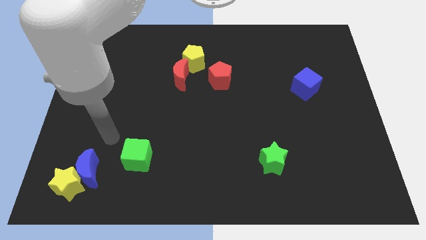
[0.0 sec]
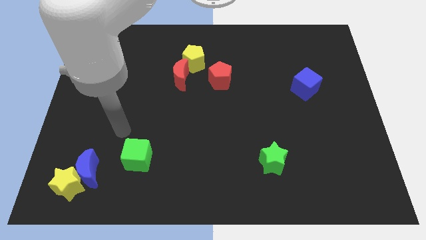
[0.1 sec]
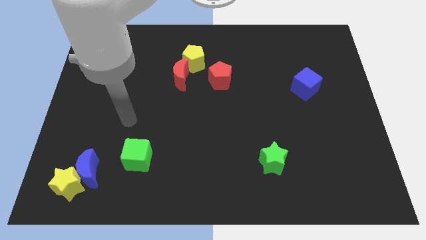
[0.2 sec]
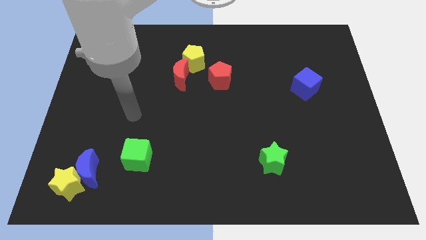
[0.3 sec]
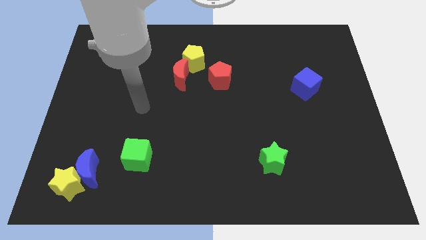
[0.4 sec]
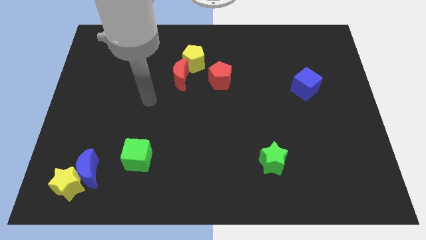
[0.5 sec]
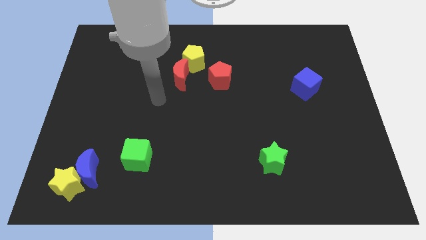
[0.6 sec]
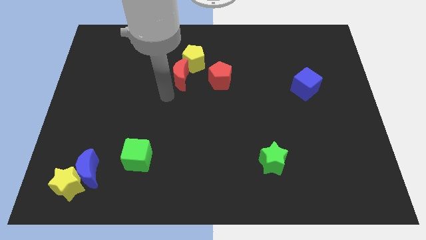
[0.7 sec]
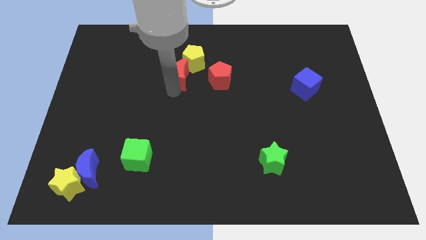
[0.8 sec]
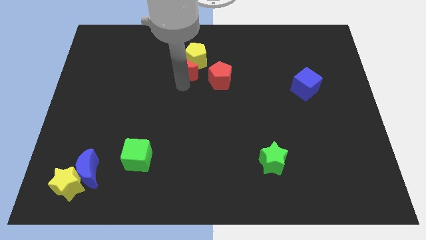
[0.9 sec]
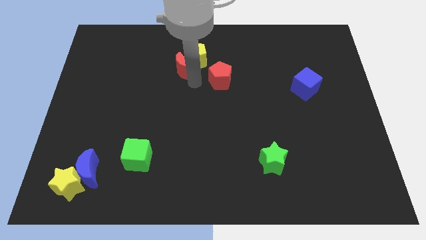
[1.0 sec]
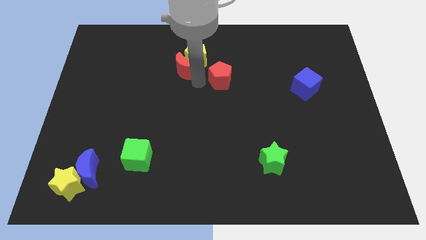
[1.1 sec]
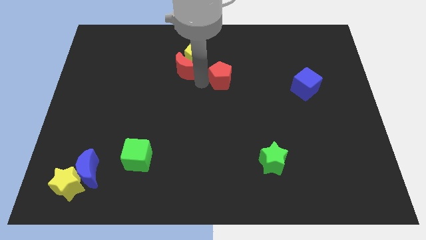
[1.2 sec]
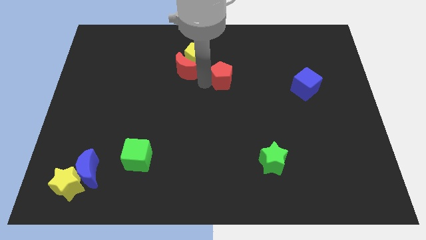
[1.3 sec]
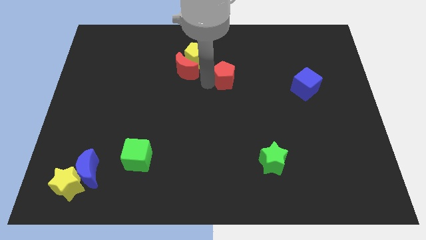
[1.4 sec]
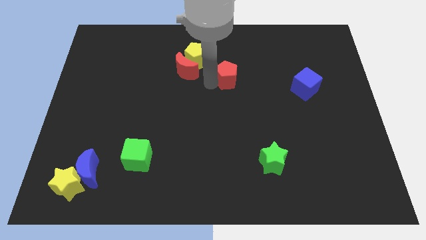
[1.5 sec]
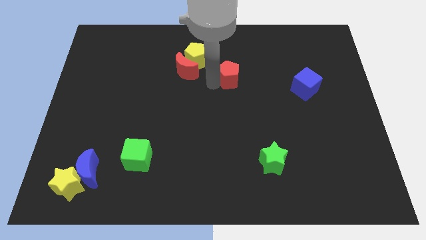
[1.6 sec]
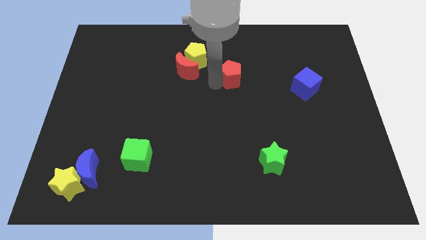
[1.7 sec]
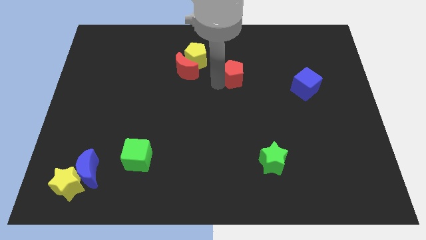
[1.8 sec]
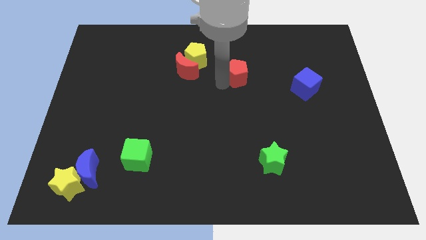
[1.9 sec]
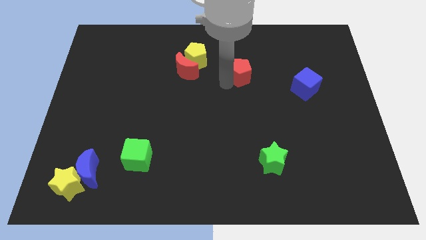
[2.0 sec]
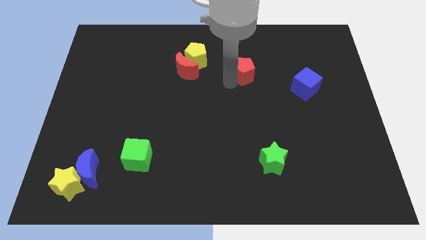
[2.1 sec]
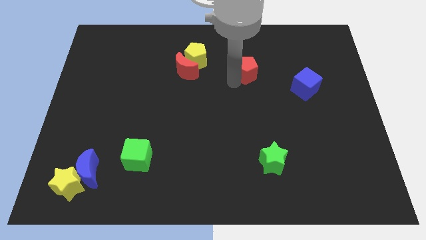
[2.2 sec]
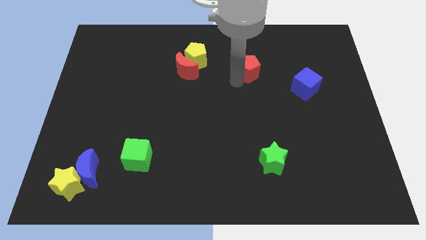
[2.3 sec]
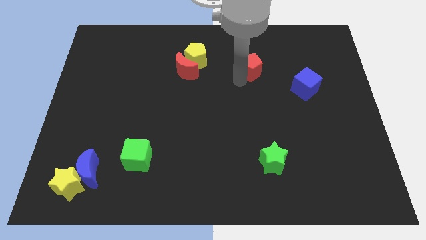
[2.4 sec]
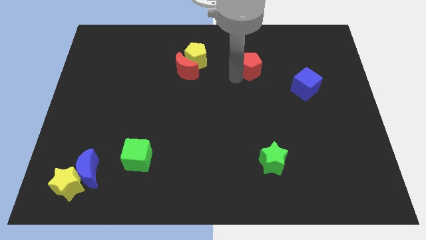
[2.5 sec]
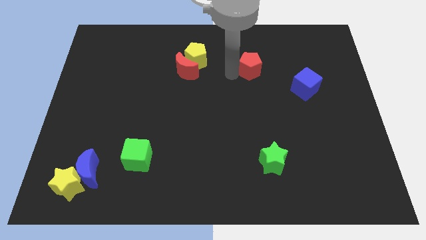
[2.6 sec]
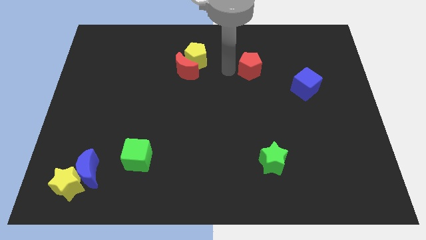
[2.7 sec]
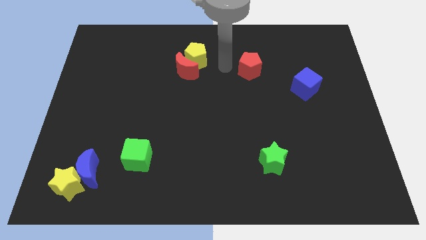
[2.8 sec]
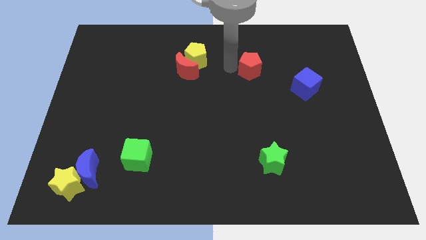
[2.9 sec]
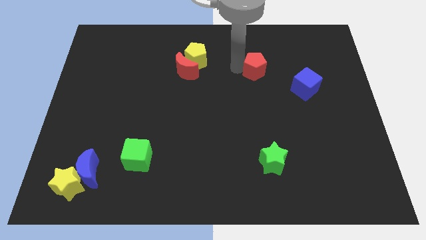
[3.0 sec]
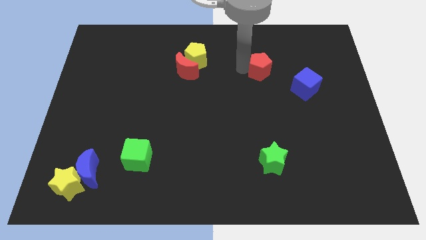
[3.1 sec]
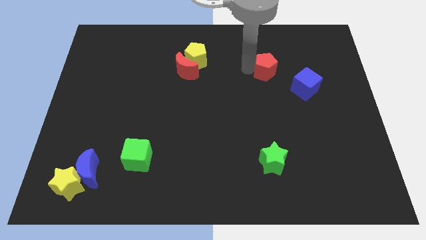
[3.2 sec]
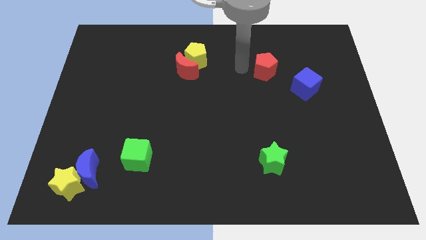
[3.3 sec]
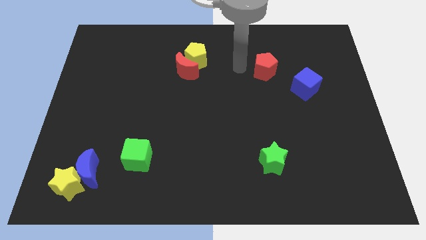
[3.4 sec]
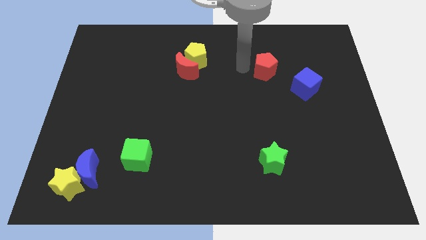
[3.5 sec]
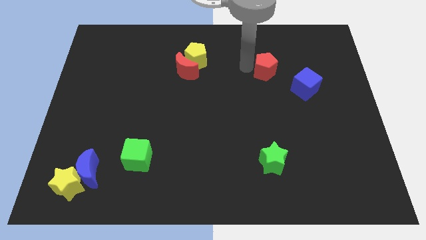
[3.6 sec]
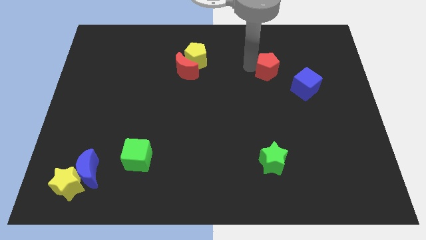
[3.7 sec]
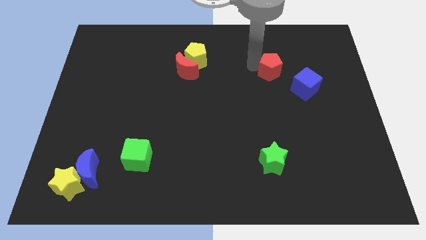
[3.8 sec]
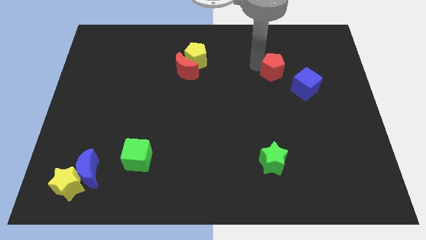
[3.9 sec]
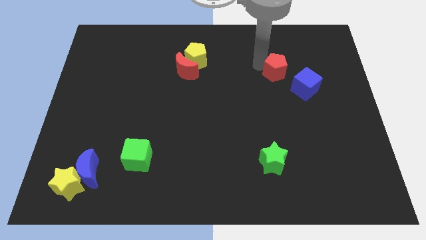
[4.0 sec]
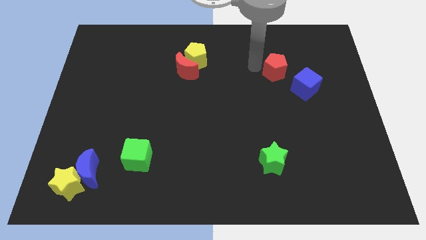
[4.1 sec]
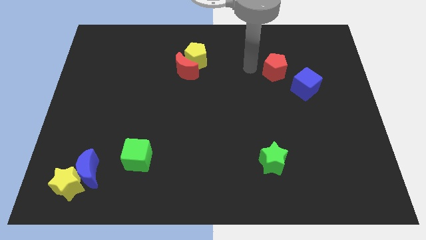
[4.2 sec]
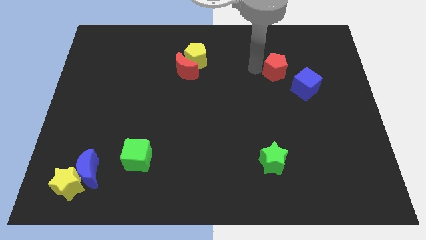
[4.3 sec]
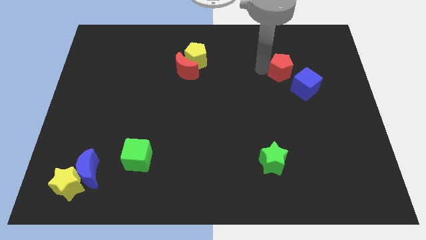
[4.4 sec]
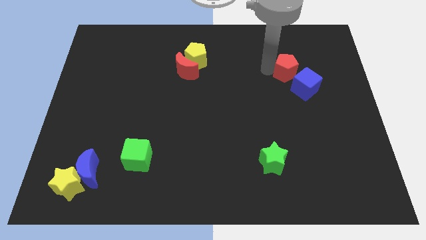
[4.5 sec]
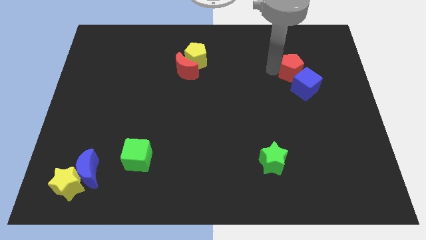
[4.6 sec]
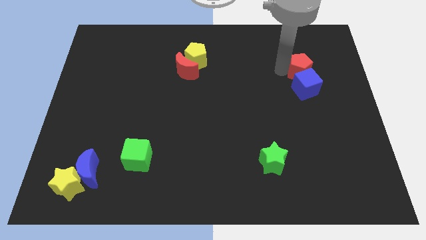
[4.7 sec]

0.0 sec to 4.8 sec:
put the red pentagon diagonally up and to the right of the blue cube

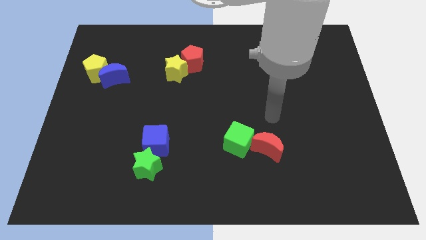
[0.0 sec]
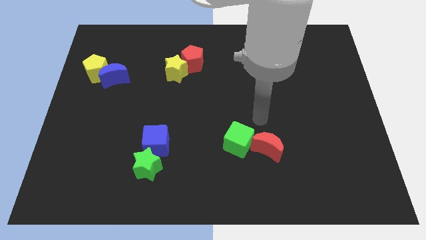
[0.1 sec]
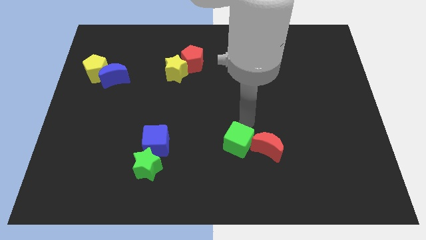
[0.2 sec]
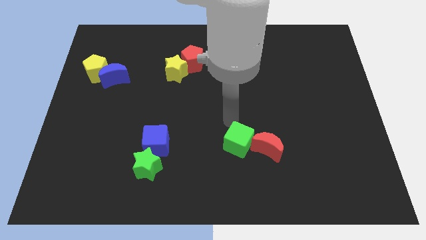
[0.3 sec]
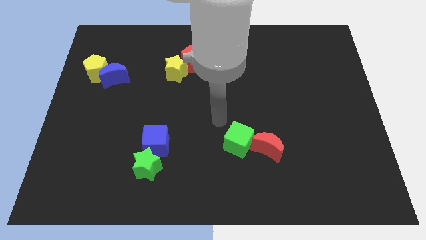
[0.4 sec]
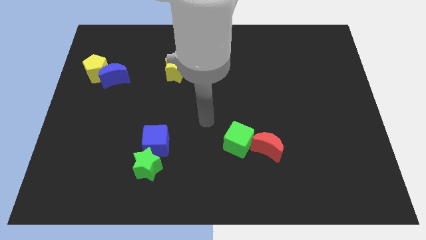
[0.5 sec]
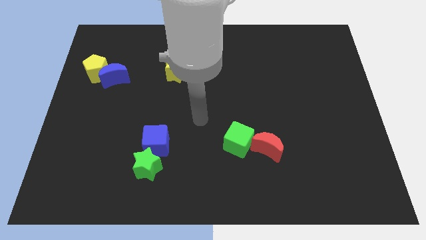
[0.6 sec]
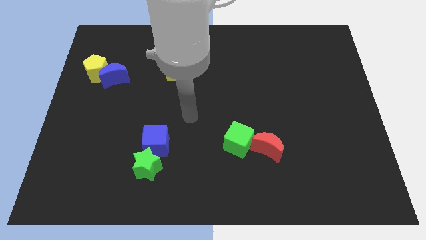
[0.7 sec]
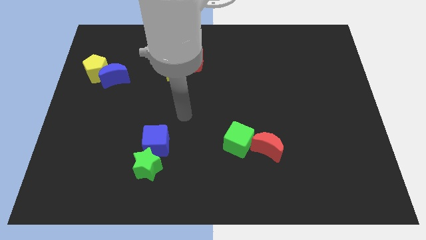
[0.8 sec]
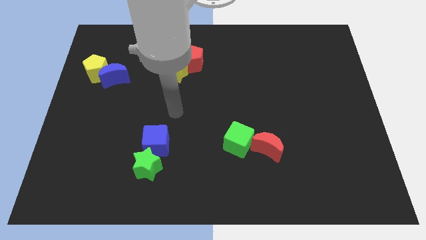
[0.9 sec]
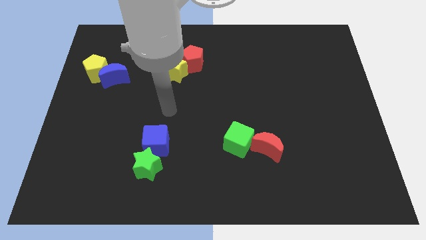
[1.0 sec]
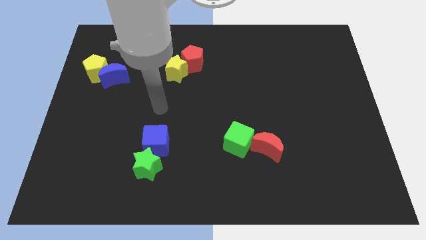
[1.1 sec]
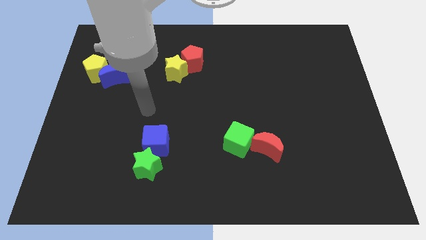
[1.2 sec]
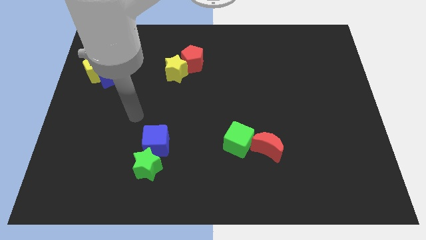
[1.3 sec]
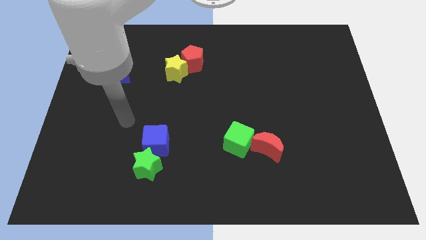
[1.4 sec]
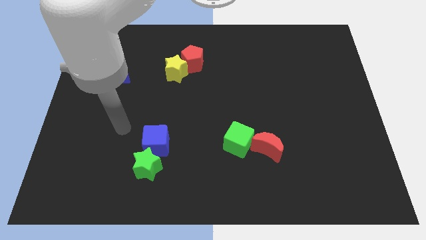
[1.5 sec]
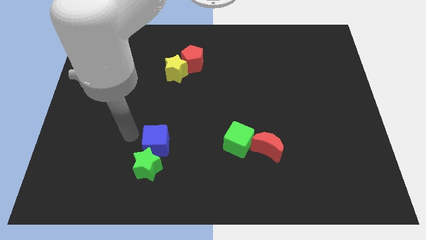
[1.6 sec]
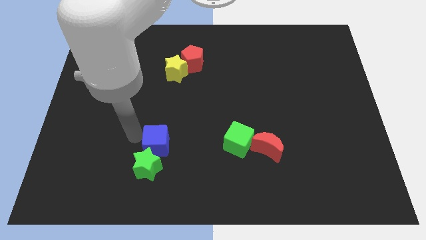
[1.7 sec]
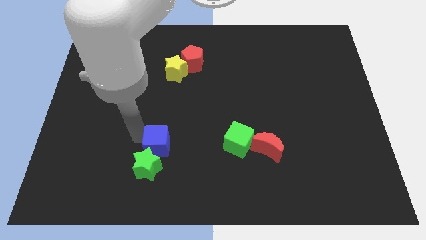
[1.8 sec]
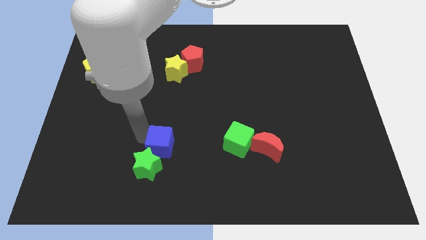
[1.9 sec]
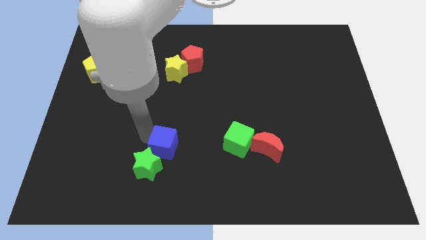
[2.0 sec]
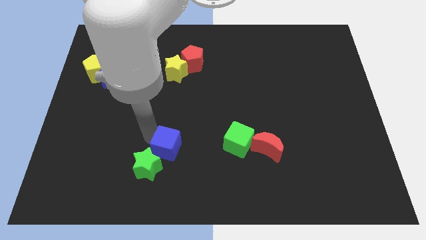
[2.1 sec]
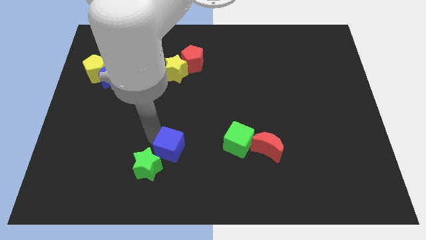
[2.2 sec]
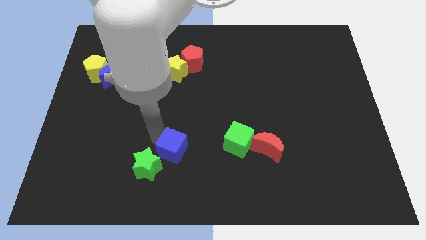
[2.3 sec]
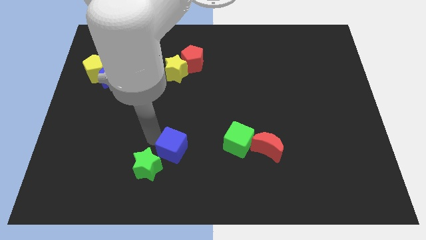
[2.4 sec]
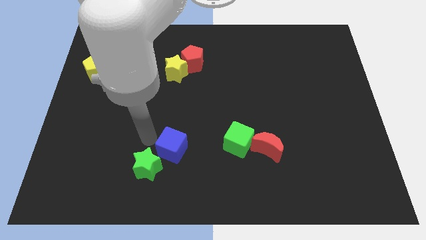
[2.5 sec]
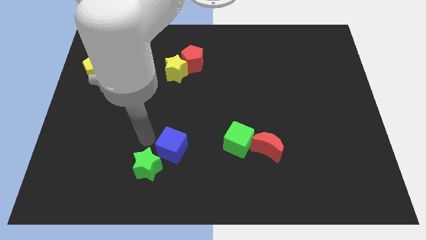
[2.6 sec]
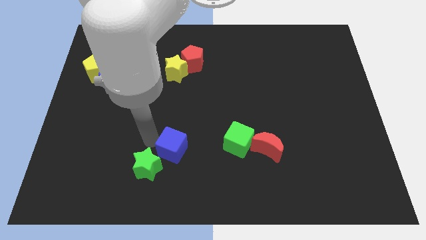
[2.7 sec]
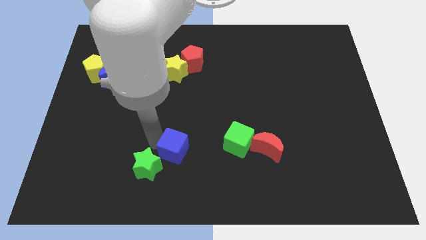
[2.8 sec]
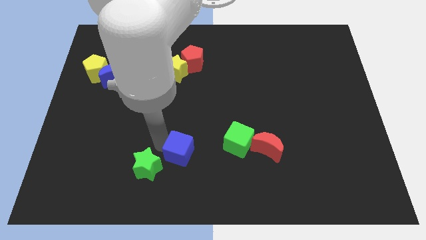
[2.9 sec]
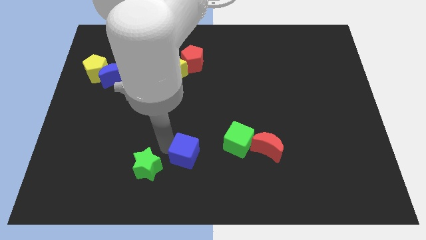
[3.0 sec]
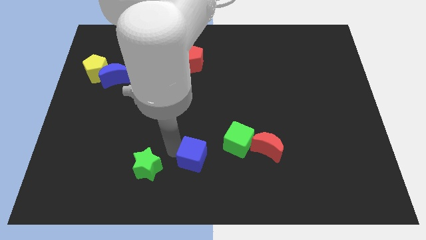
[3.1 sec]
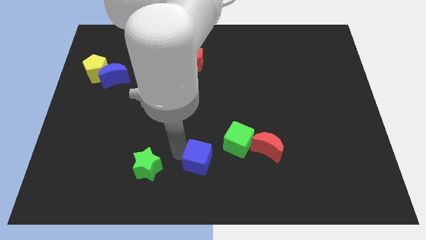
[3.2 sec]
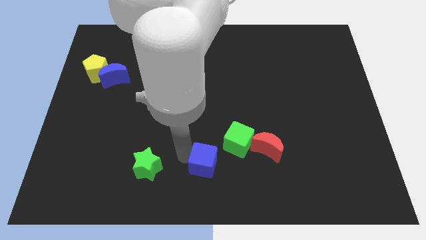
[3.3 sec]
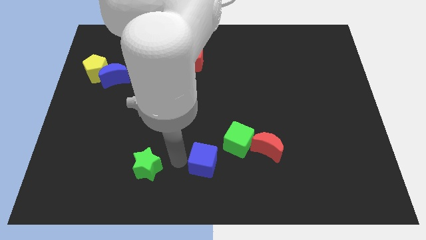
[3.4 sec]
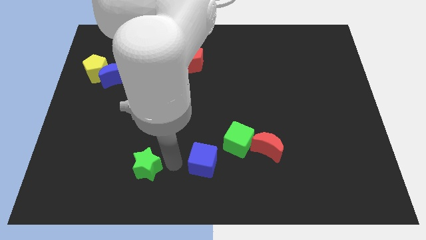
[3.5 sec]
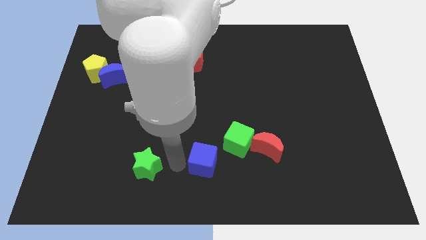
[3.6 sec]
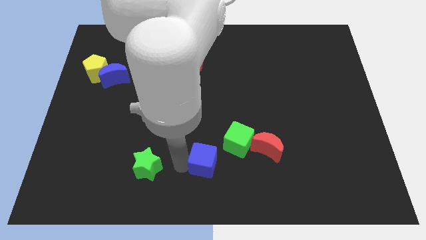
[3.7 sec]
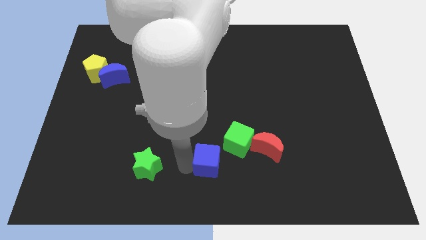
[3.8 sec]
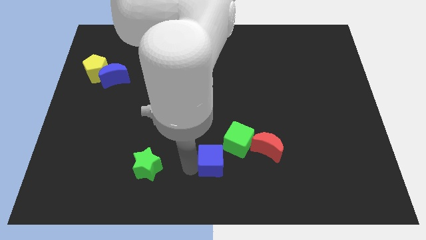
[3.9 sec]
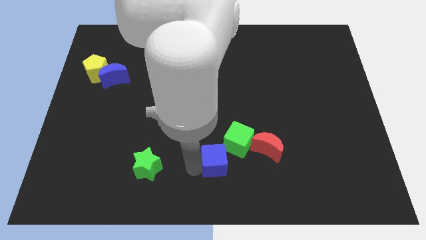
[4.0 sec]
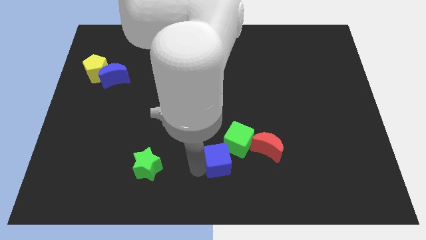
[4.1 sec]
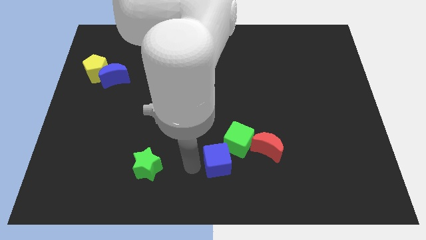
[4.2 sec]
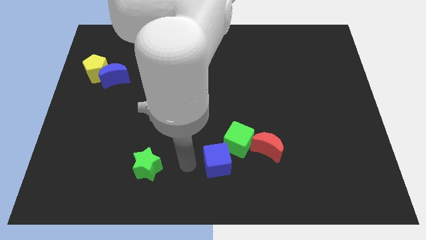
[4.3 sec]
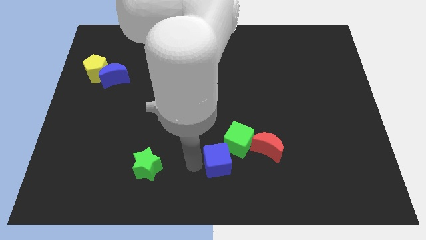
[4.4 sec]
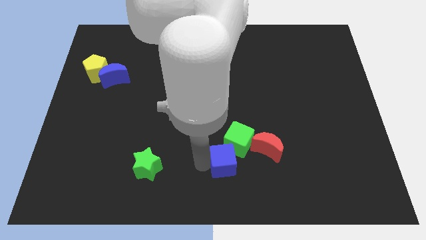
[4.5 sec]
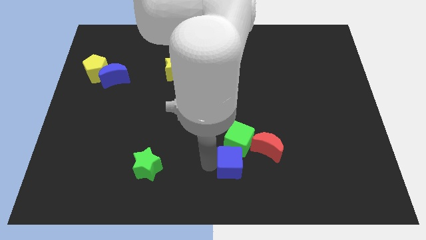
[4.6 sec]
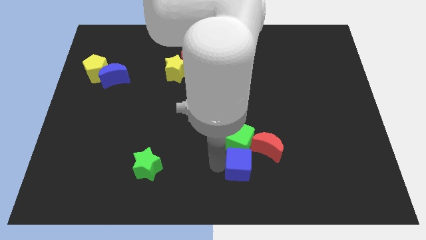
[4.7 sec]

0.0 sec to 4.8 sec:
push the blue cube to the bottom right side of the green cube
